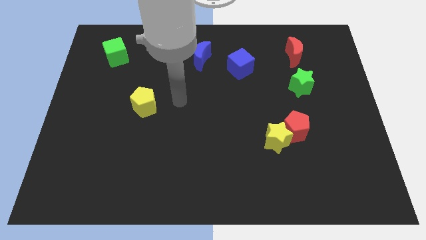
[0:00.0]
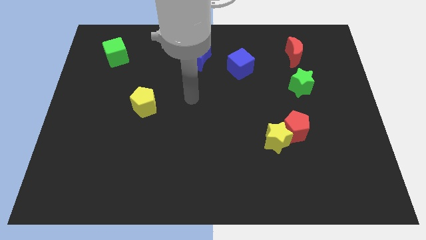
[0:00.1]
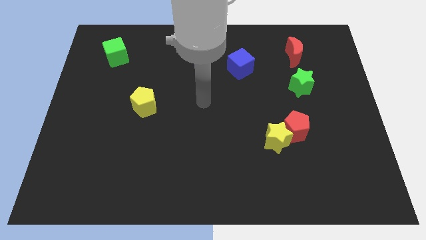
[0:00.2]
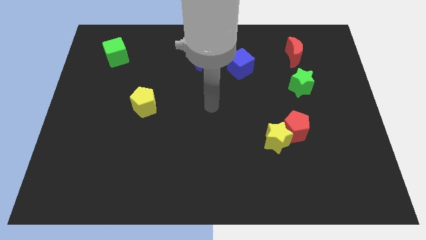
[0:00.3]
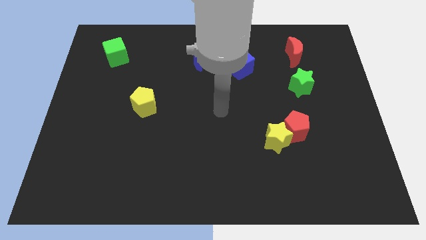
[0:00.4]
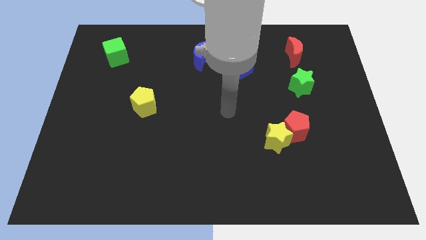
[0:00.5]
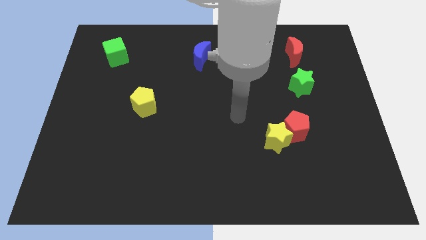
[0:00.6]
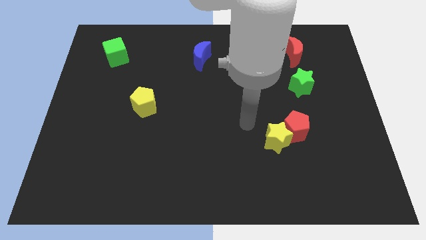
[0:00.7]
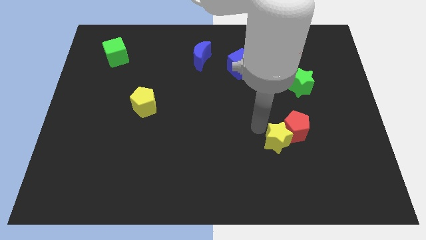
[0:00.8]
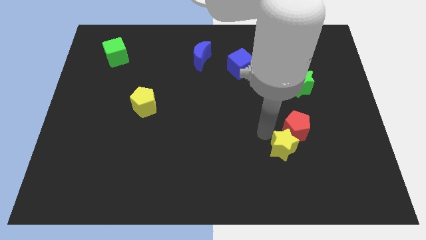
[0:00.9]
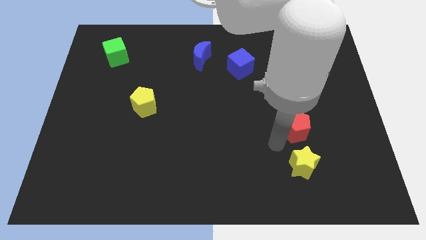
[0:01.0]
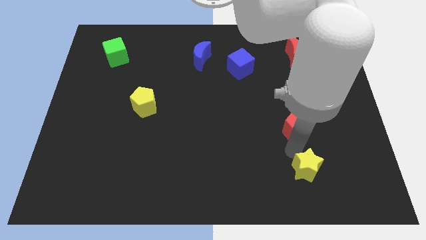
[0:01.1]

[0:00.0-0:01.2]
pull the red pentagon apart from the yellow star

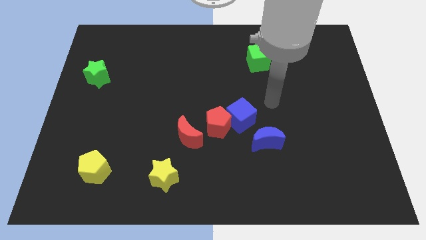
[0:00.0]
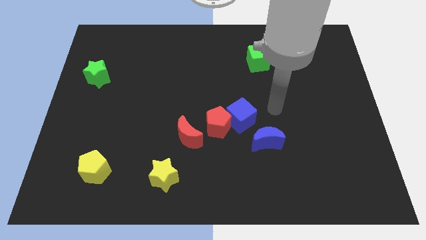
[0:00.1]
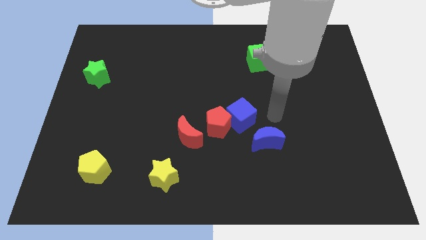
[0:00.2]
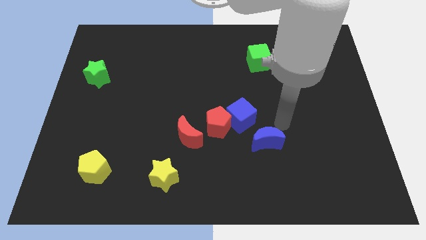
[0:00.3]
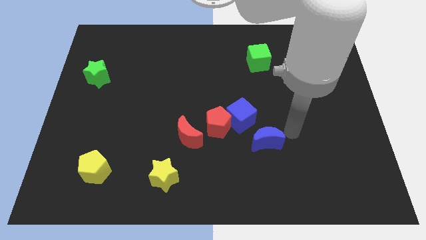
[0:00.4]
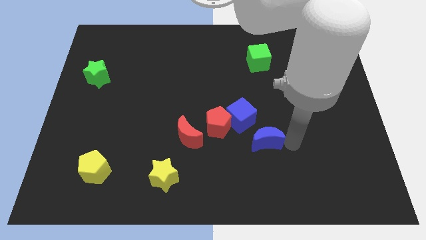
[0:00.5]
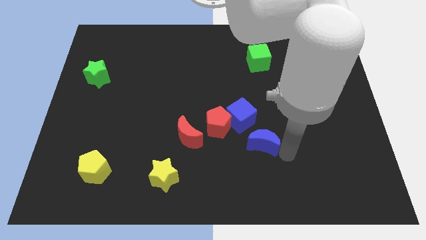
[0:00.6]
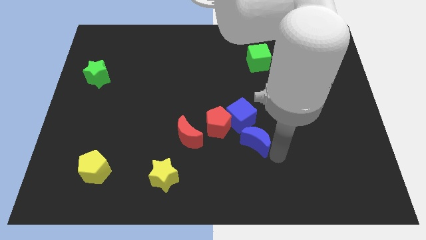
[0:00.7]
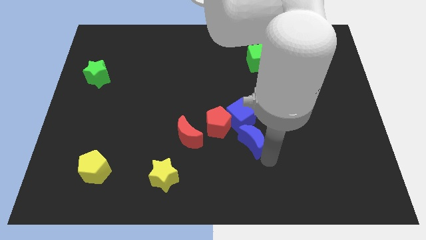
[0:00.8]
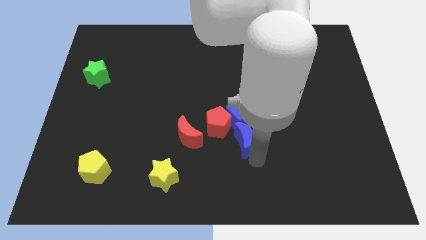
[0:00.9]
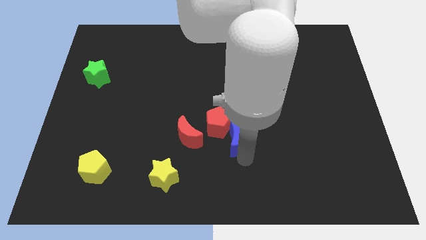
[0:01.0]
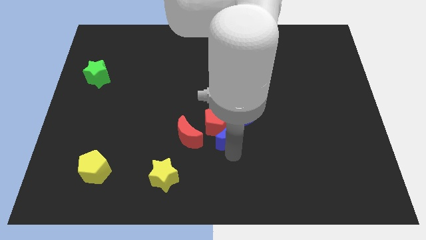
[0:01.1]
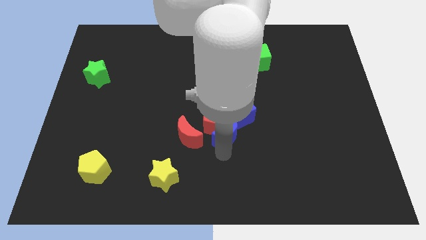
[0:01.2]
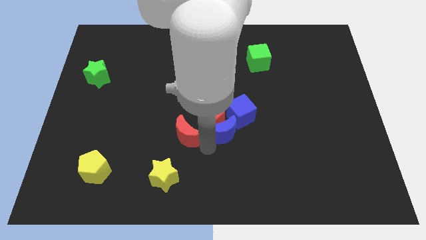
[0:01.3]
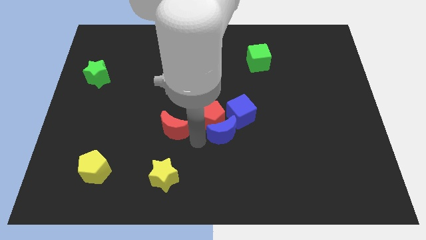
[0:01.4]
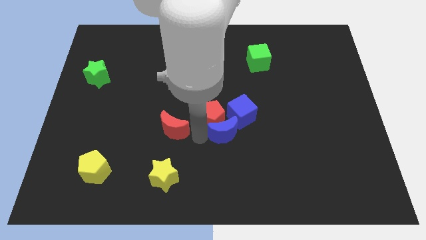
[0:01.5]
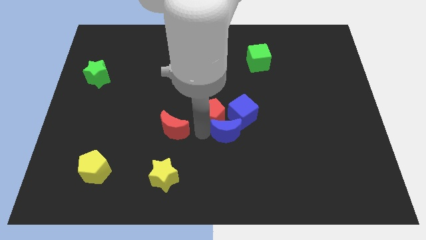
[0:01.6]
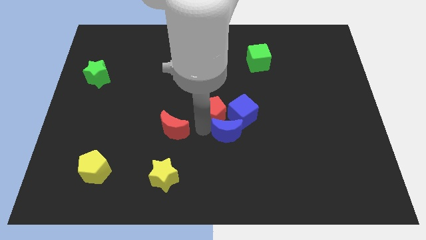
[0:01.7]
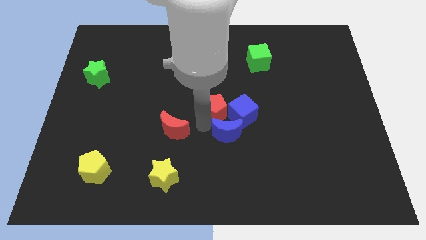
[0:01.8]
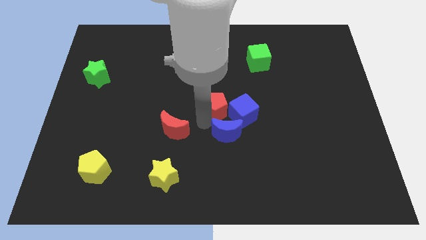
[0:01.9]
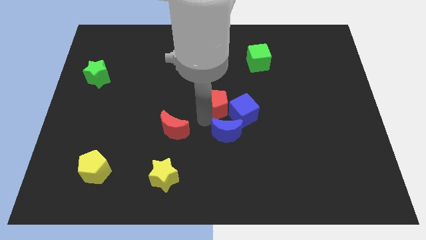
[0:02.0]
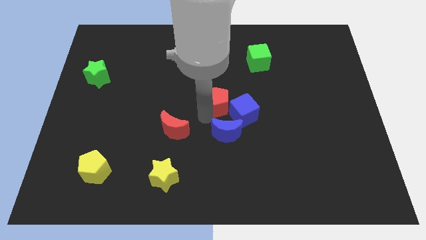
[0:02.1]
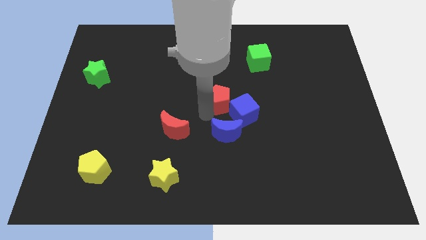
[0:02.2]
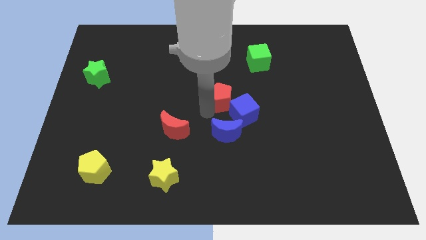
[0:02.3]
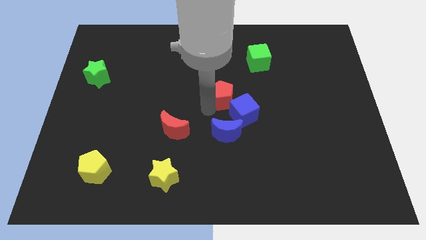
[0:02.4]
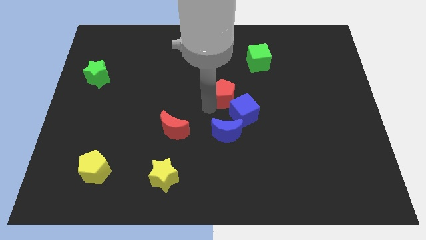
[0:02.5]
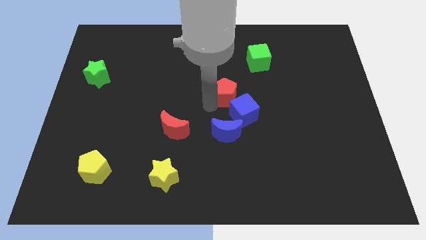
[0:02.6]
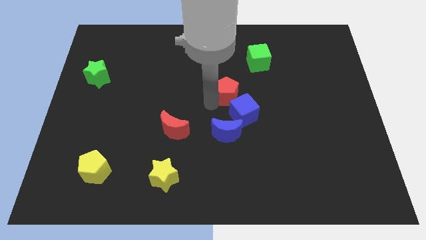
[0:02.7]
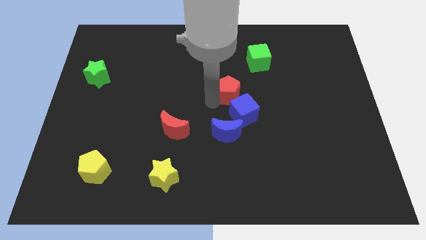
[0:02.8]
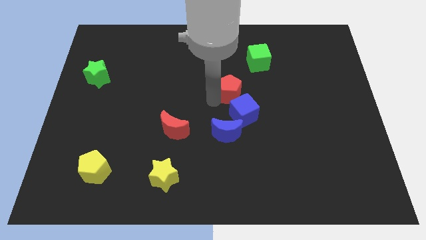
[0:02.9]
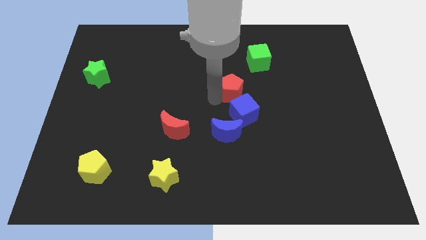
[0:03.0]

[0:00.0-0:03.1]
pull the red pentagon apart from the blue cube and red moon

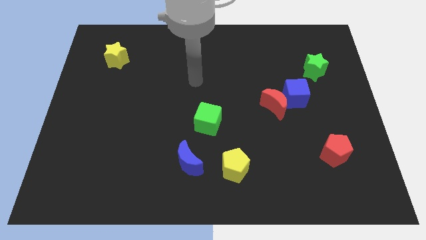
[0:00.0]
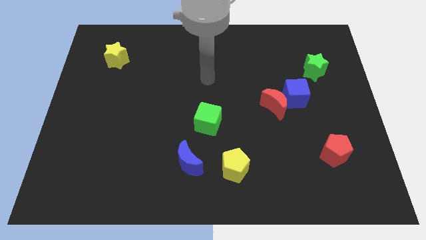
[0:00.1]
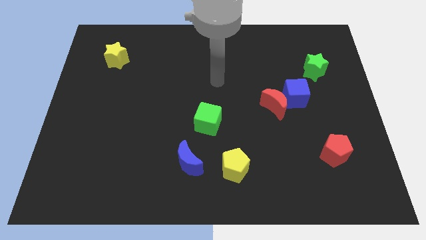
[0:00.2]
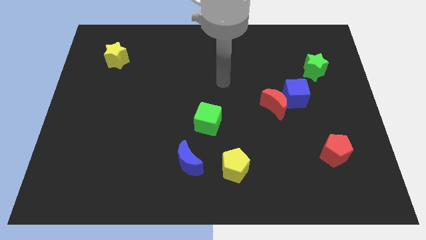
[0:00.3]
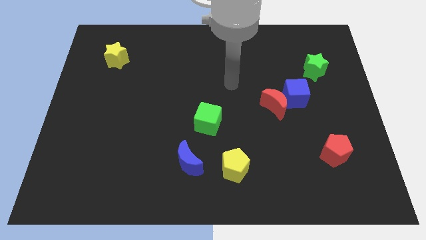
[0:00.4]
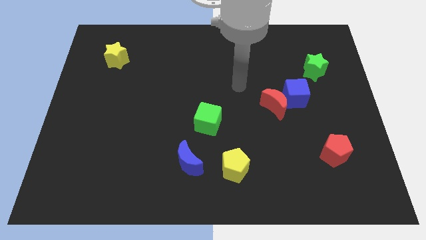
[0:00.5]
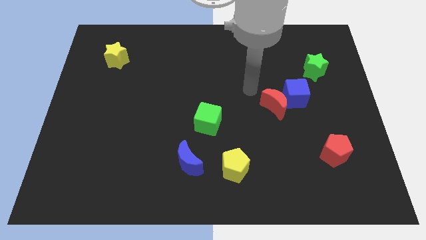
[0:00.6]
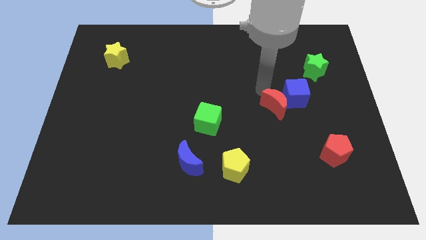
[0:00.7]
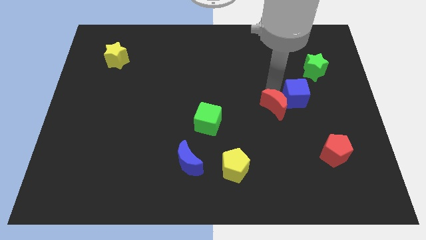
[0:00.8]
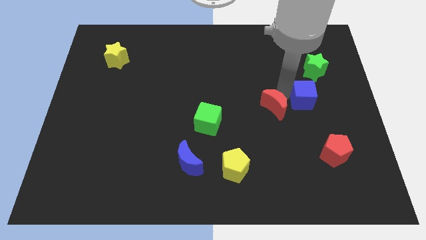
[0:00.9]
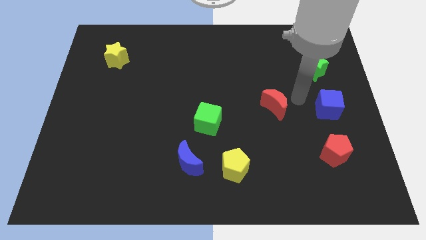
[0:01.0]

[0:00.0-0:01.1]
pull the red moon apart from the blue cube

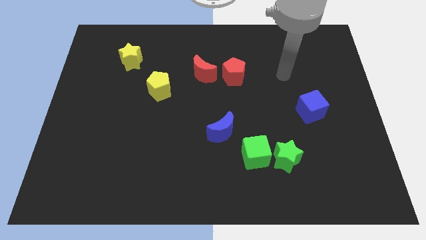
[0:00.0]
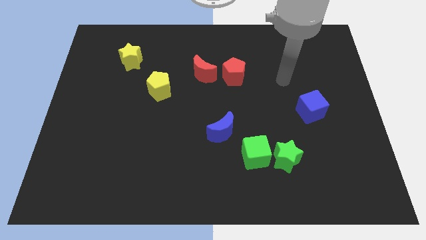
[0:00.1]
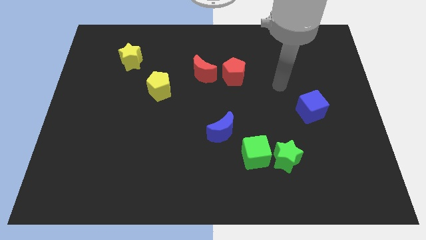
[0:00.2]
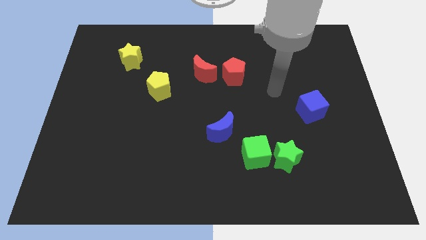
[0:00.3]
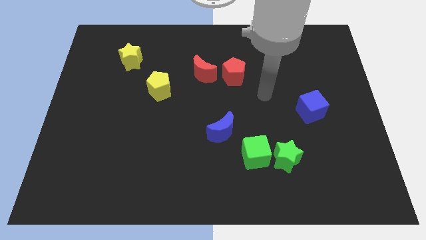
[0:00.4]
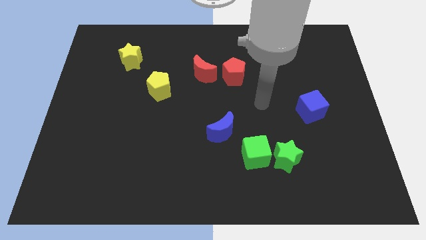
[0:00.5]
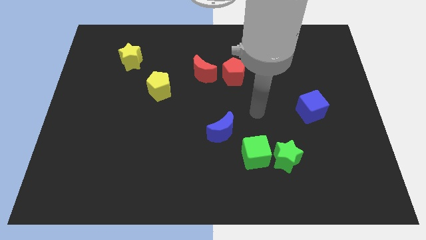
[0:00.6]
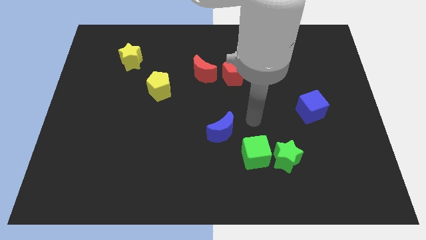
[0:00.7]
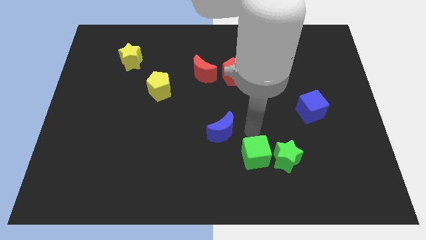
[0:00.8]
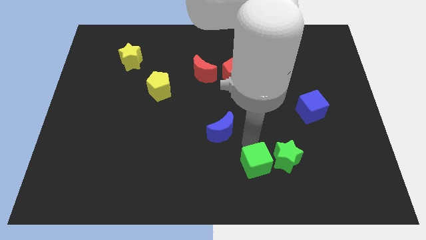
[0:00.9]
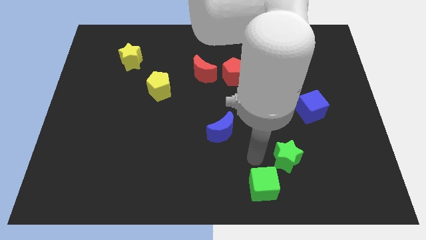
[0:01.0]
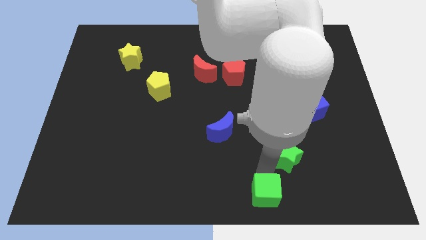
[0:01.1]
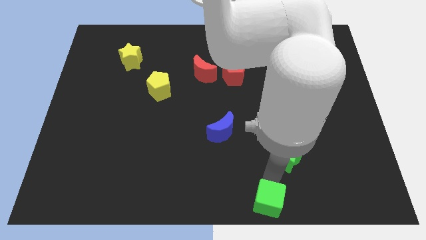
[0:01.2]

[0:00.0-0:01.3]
pull the green star apart from the green cube

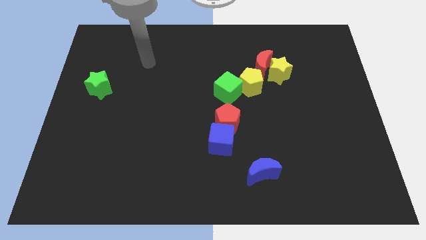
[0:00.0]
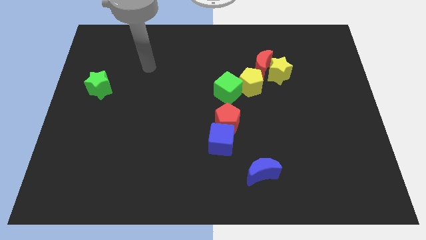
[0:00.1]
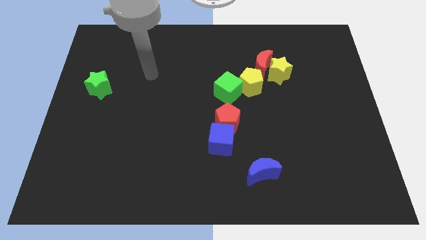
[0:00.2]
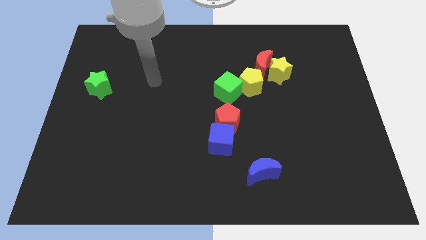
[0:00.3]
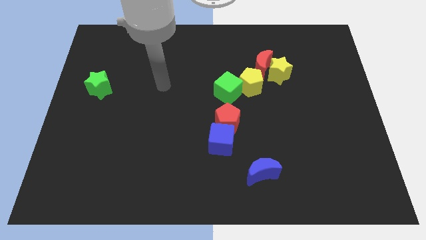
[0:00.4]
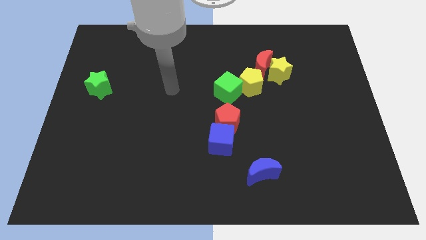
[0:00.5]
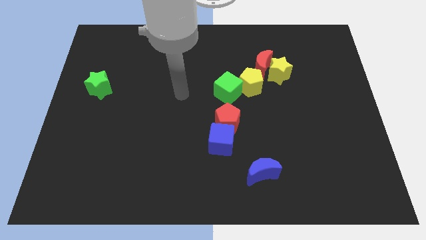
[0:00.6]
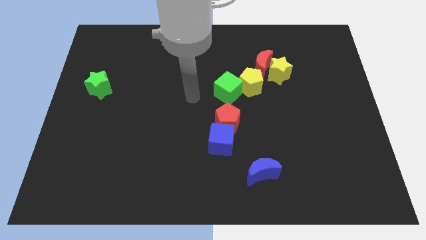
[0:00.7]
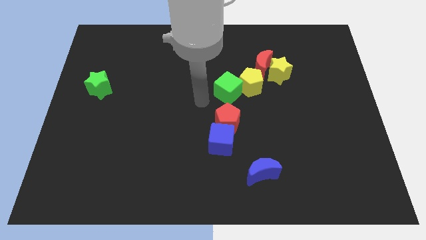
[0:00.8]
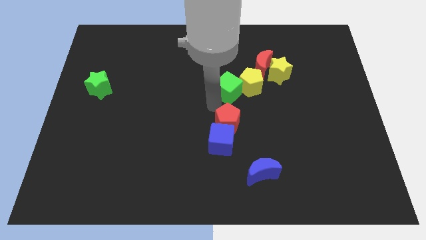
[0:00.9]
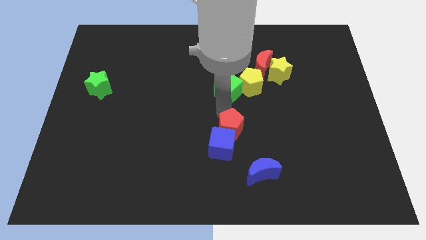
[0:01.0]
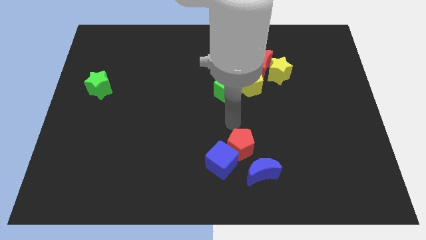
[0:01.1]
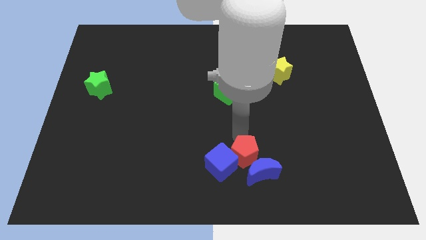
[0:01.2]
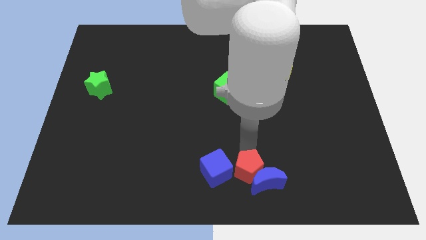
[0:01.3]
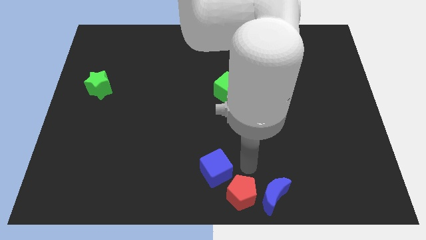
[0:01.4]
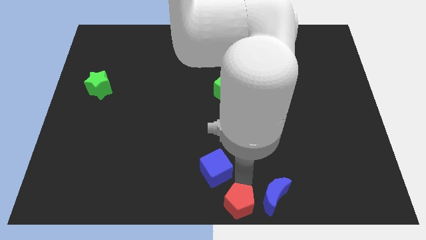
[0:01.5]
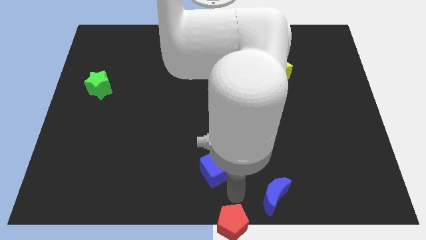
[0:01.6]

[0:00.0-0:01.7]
pull the blue cube apart from the red pentagon

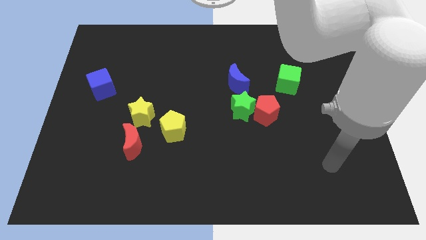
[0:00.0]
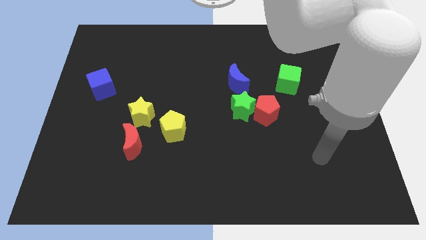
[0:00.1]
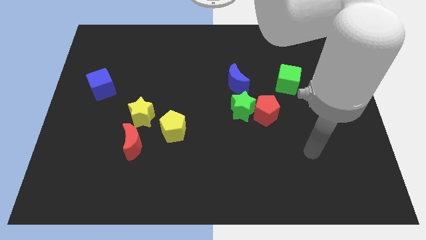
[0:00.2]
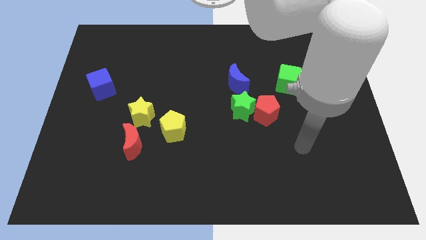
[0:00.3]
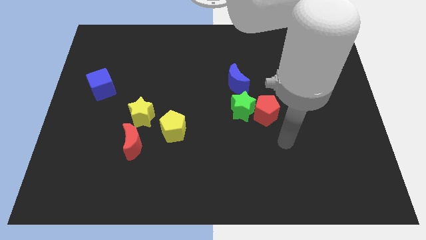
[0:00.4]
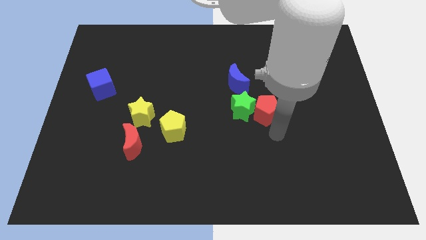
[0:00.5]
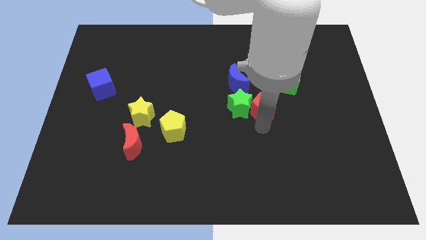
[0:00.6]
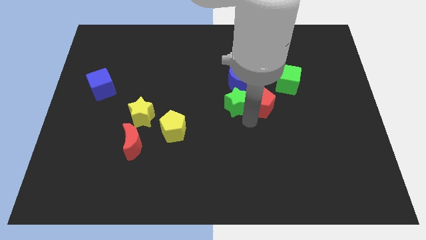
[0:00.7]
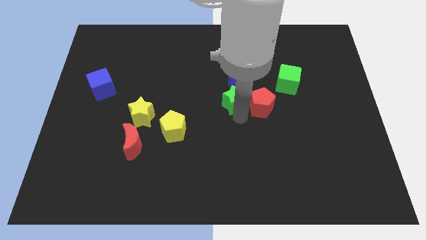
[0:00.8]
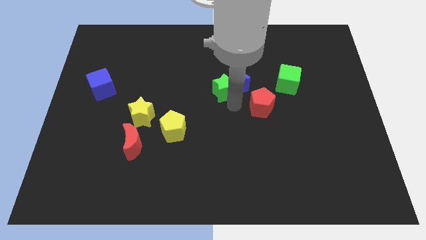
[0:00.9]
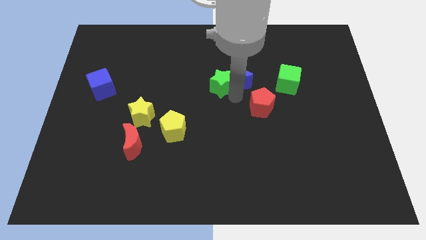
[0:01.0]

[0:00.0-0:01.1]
move the red pentagon away from the green star
